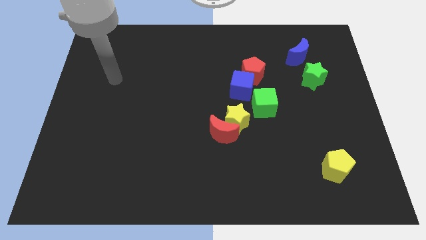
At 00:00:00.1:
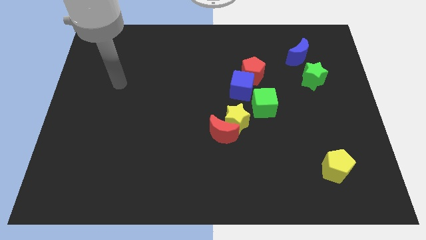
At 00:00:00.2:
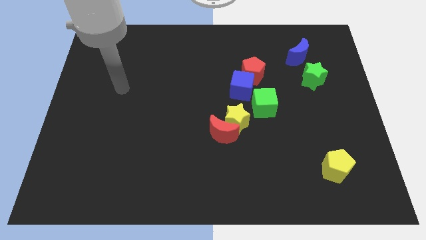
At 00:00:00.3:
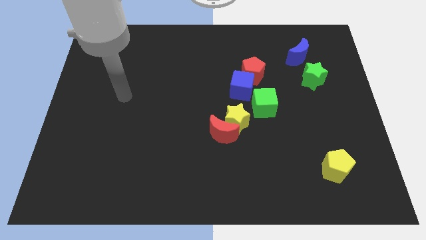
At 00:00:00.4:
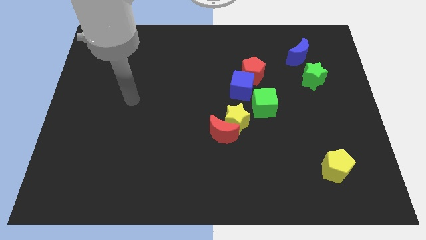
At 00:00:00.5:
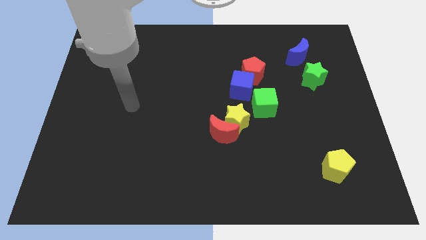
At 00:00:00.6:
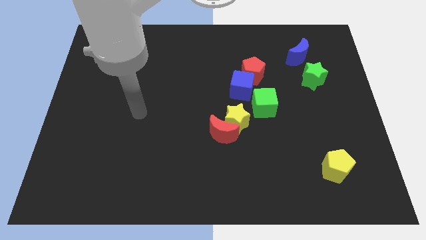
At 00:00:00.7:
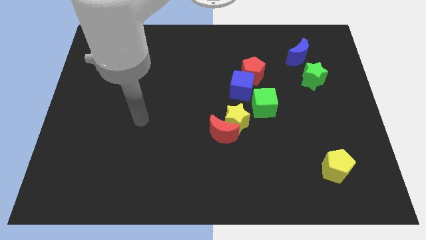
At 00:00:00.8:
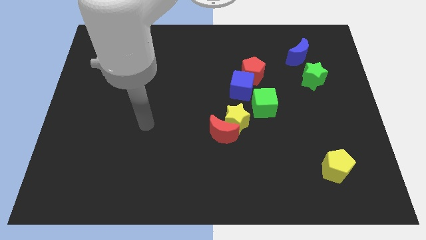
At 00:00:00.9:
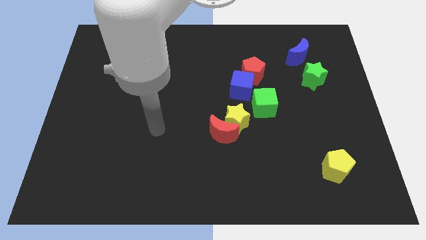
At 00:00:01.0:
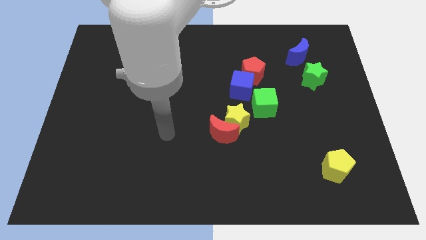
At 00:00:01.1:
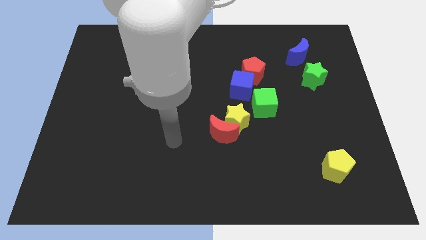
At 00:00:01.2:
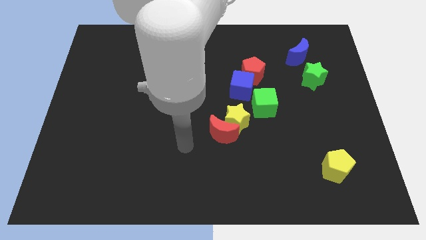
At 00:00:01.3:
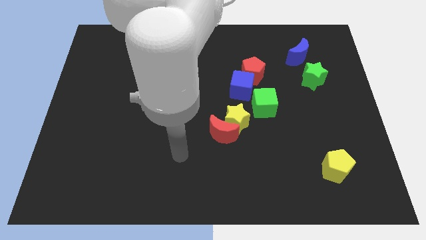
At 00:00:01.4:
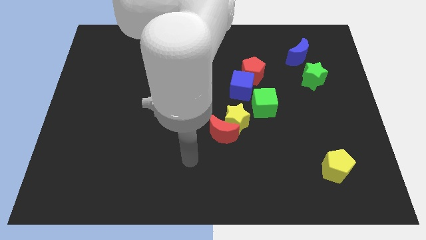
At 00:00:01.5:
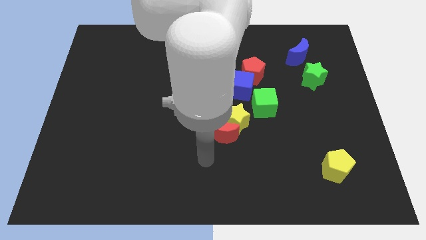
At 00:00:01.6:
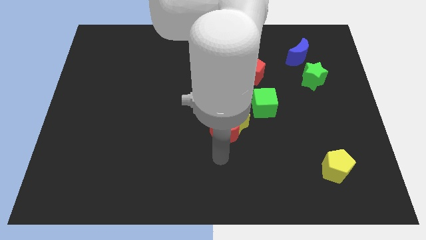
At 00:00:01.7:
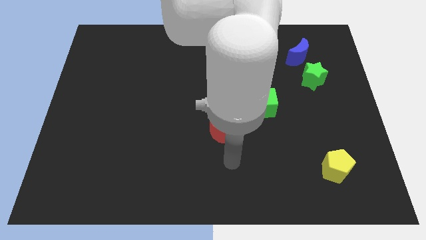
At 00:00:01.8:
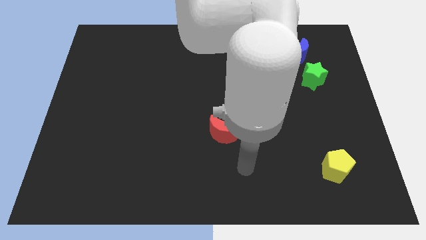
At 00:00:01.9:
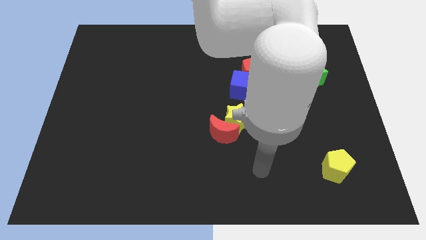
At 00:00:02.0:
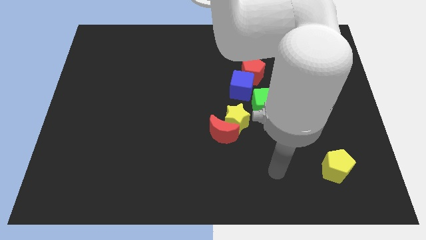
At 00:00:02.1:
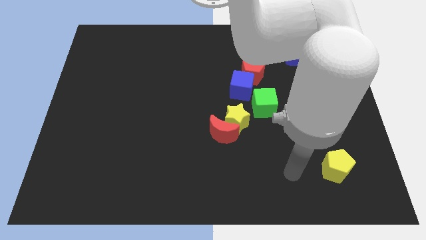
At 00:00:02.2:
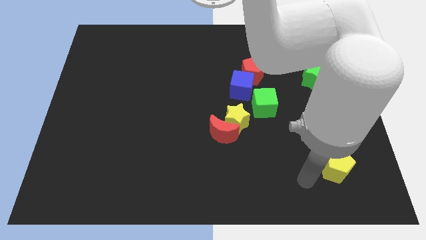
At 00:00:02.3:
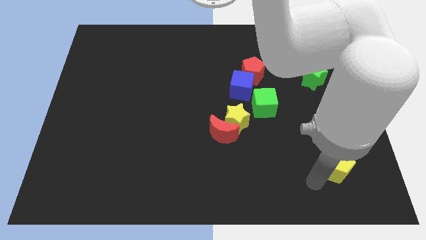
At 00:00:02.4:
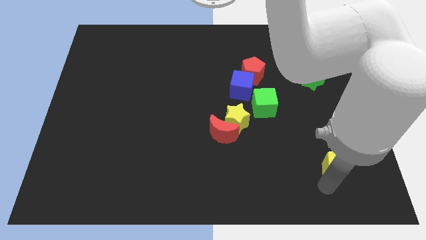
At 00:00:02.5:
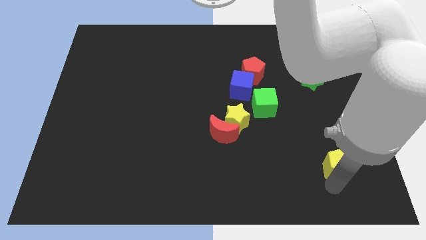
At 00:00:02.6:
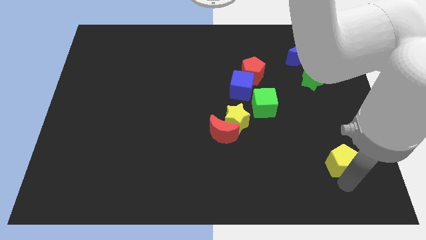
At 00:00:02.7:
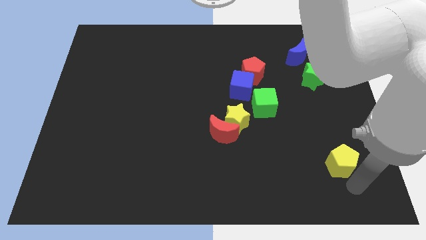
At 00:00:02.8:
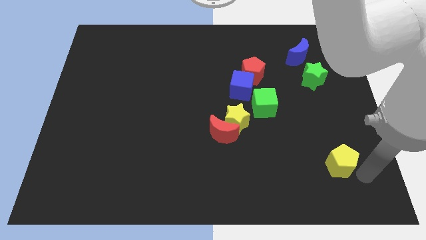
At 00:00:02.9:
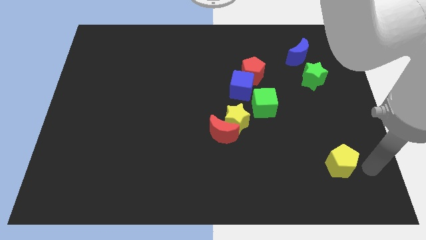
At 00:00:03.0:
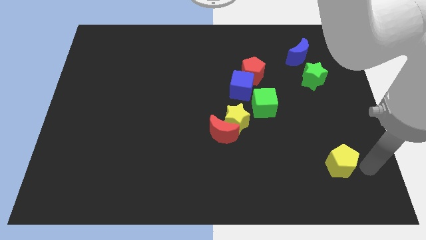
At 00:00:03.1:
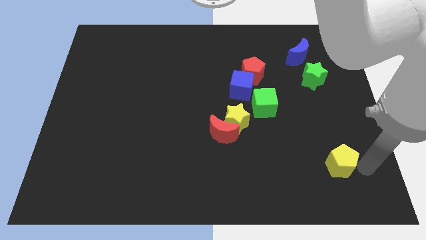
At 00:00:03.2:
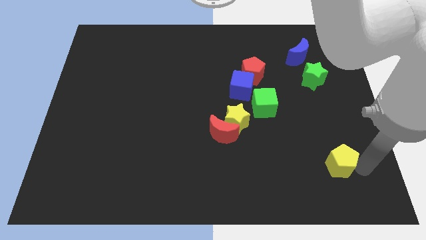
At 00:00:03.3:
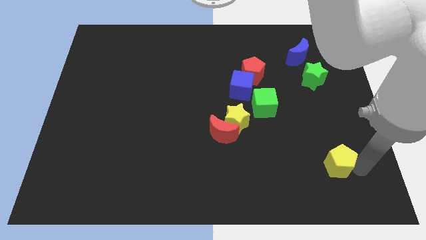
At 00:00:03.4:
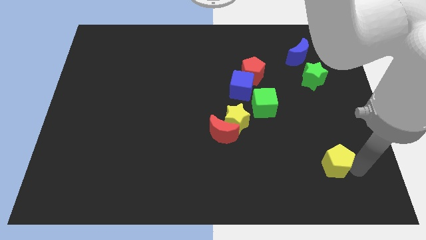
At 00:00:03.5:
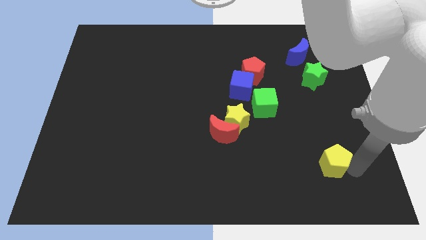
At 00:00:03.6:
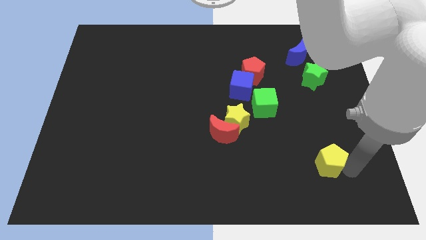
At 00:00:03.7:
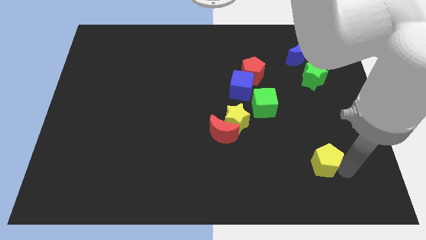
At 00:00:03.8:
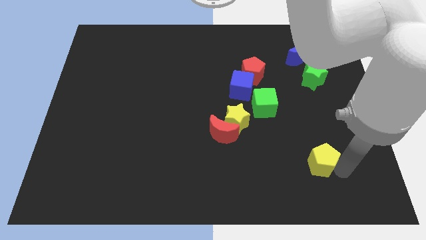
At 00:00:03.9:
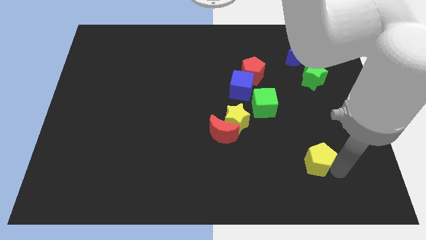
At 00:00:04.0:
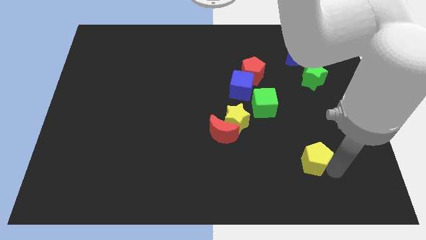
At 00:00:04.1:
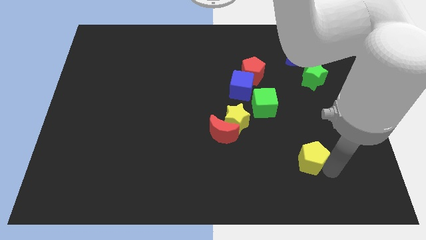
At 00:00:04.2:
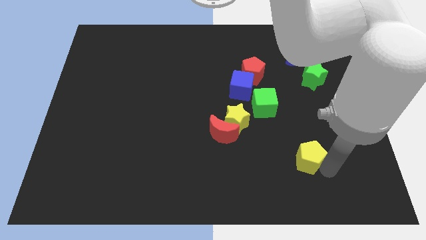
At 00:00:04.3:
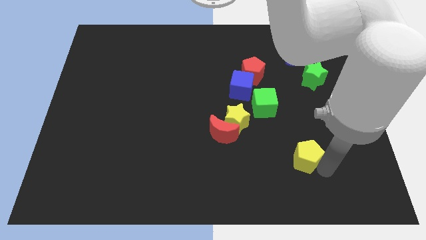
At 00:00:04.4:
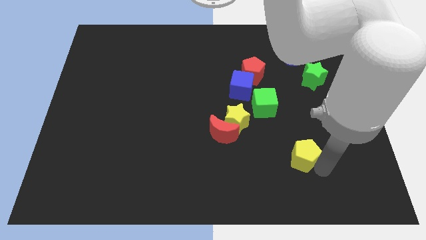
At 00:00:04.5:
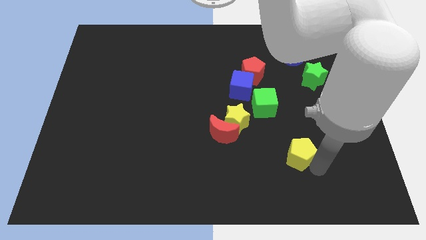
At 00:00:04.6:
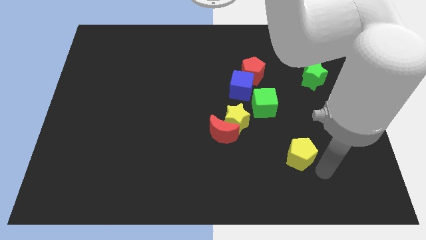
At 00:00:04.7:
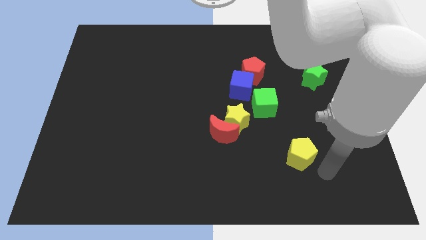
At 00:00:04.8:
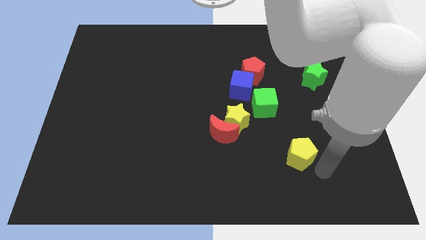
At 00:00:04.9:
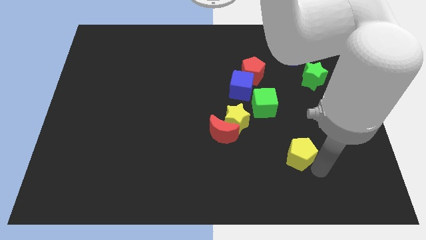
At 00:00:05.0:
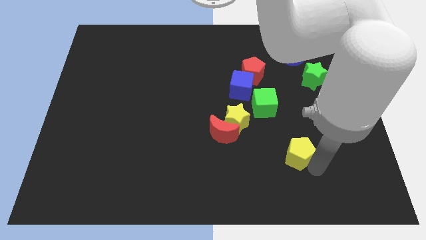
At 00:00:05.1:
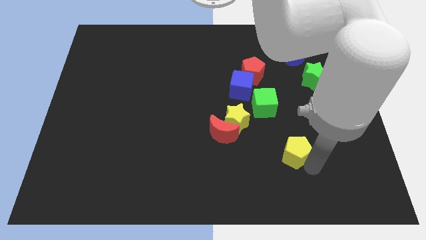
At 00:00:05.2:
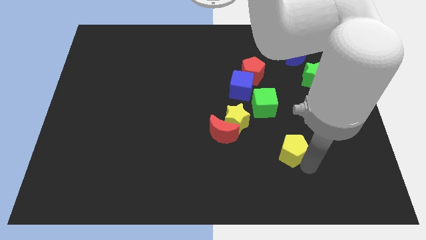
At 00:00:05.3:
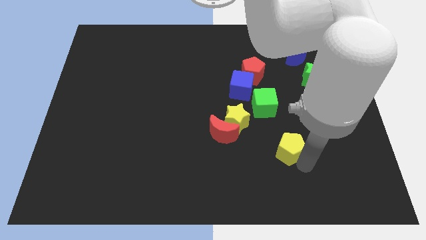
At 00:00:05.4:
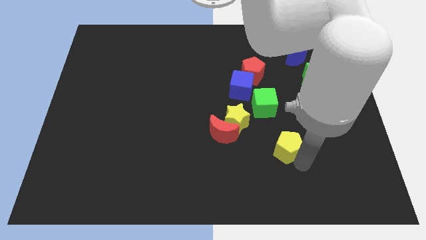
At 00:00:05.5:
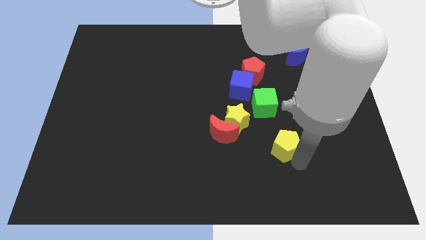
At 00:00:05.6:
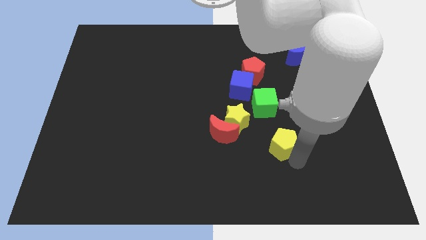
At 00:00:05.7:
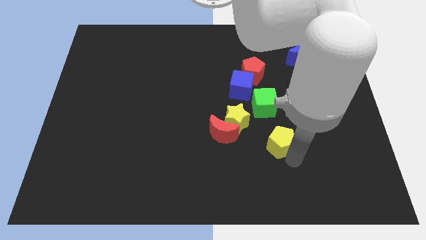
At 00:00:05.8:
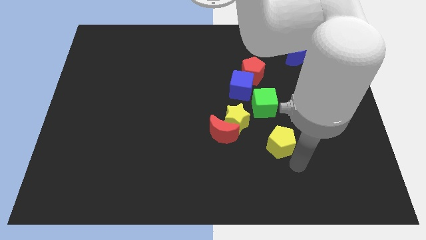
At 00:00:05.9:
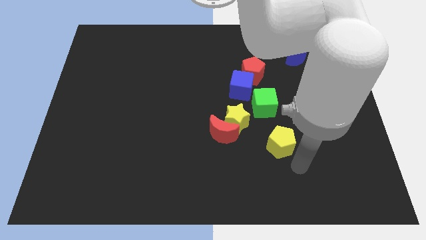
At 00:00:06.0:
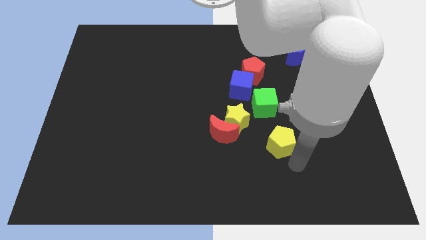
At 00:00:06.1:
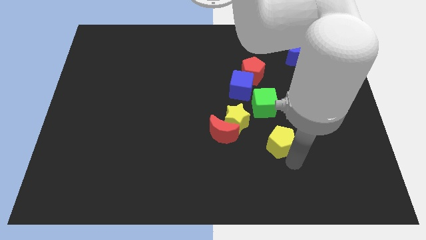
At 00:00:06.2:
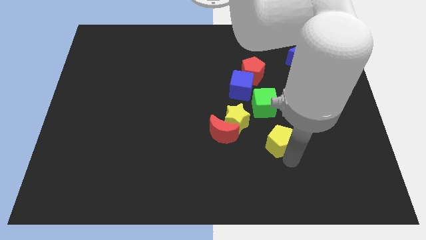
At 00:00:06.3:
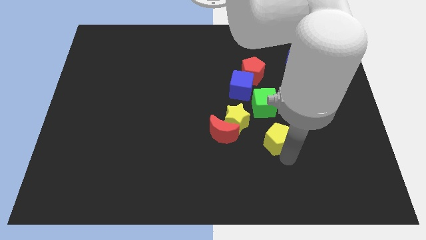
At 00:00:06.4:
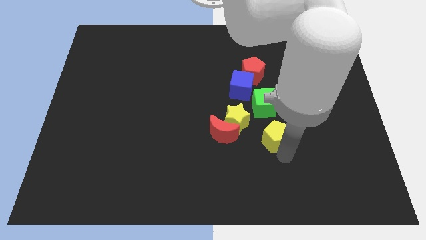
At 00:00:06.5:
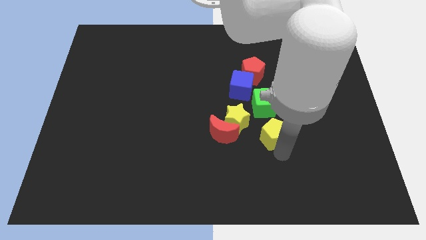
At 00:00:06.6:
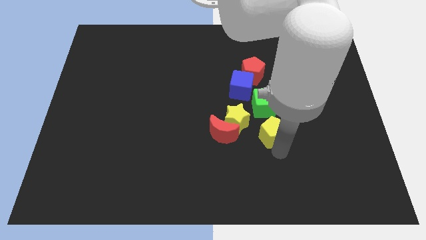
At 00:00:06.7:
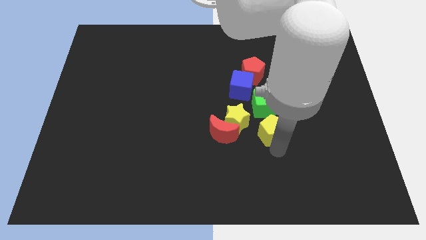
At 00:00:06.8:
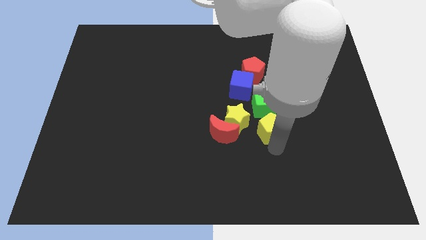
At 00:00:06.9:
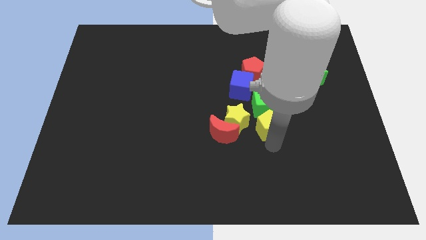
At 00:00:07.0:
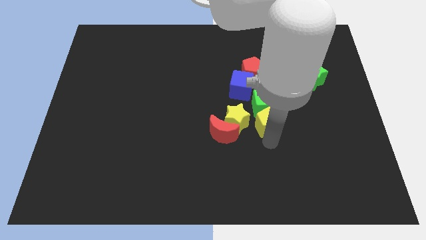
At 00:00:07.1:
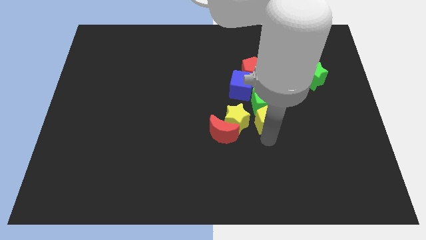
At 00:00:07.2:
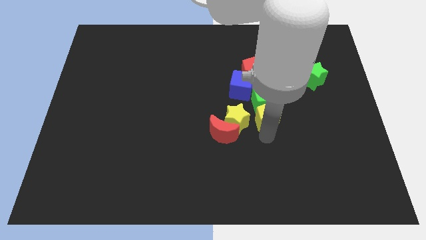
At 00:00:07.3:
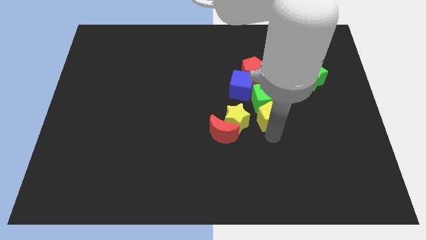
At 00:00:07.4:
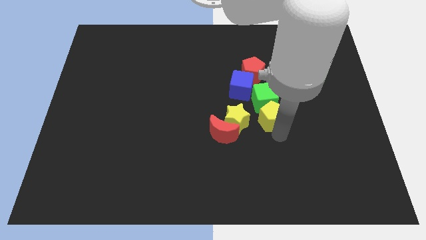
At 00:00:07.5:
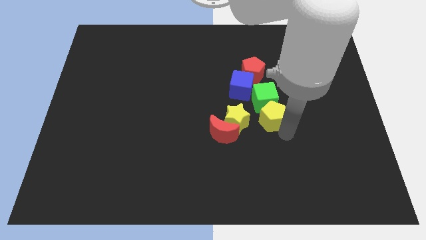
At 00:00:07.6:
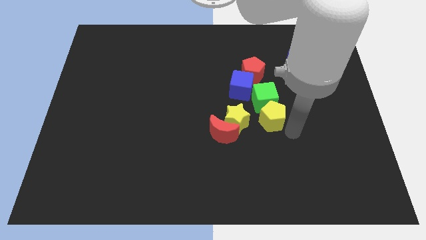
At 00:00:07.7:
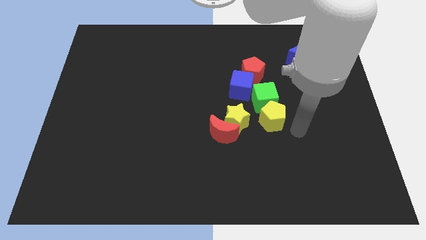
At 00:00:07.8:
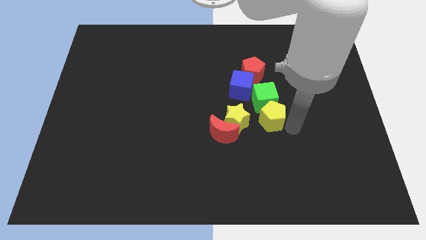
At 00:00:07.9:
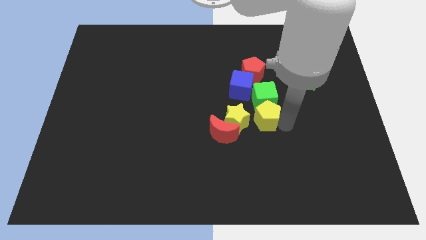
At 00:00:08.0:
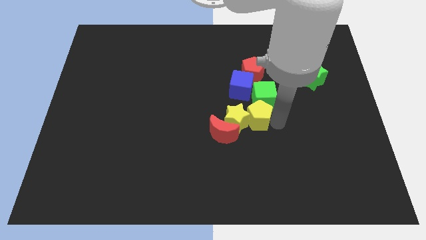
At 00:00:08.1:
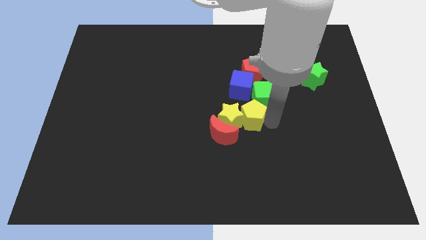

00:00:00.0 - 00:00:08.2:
move the yellow pentagon up and left
